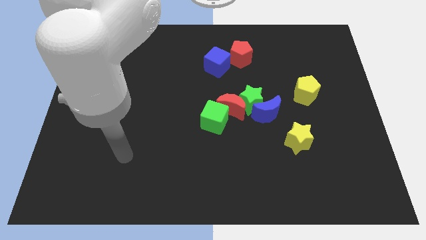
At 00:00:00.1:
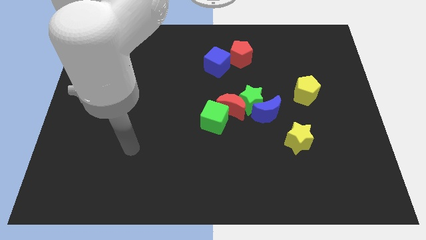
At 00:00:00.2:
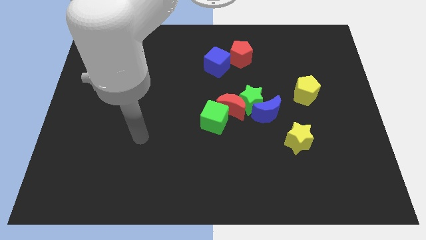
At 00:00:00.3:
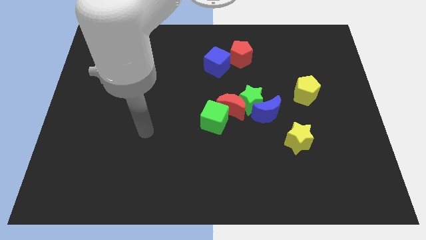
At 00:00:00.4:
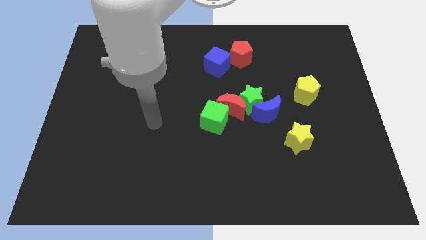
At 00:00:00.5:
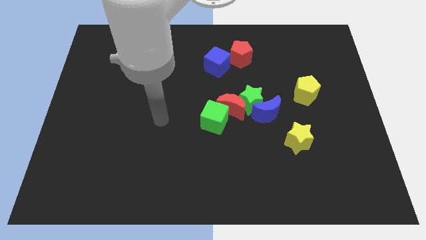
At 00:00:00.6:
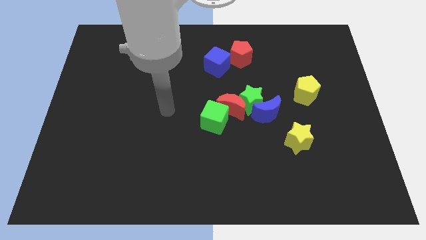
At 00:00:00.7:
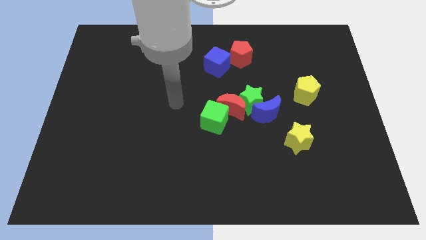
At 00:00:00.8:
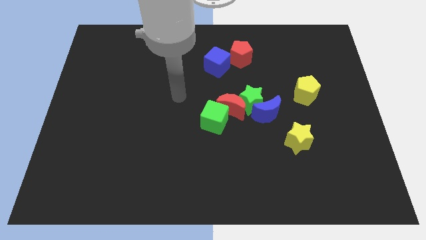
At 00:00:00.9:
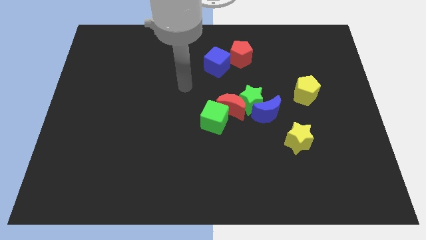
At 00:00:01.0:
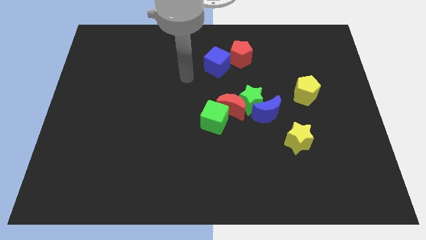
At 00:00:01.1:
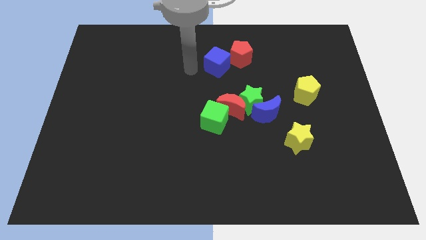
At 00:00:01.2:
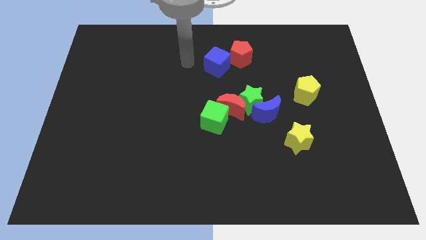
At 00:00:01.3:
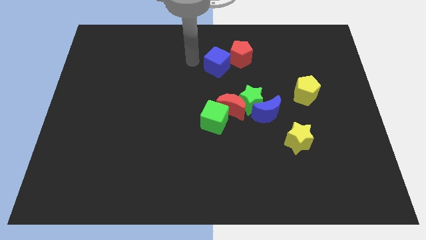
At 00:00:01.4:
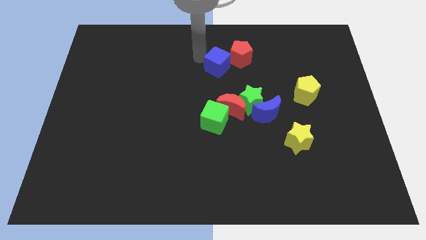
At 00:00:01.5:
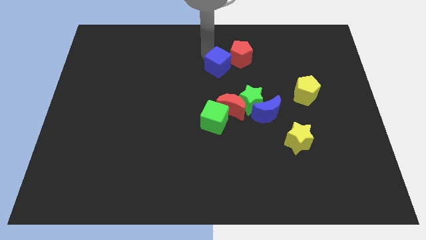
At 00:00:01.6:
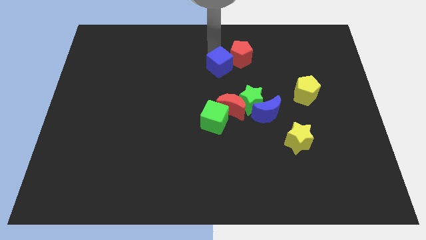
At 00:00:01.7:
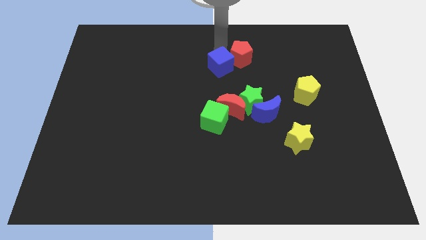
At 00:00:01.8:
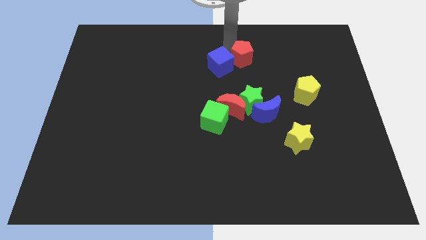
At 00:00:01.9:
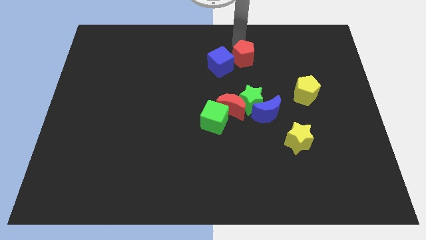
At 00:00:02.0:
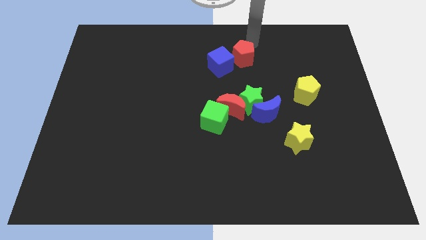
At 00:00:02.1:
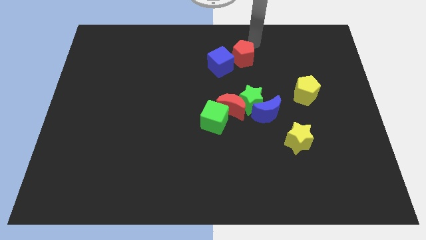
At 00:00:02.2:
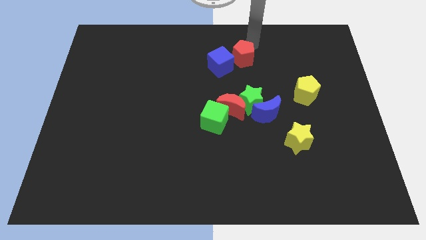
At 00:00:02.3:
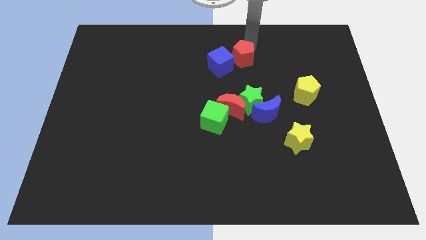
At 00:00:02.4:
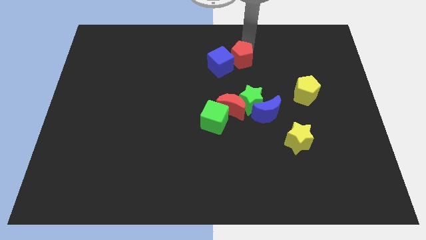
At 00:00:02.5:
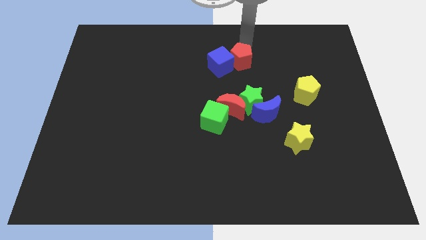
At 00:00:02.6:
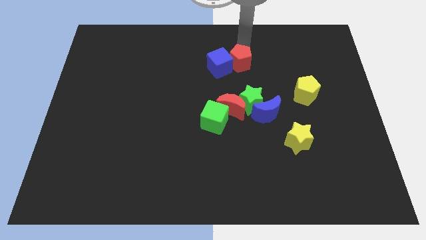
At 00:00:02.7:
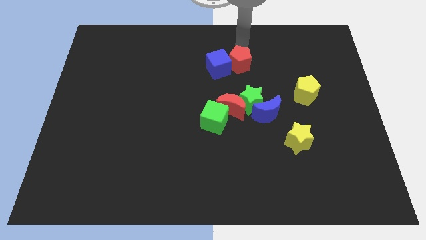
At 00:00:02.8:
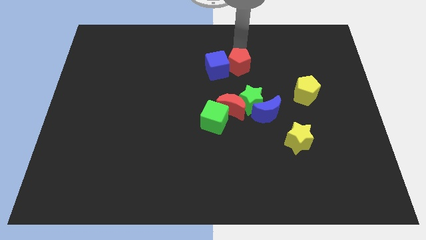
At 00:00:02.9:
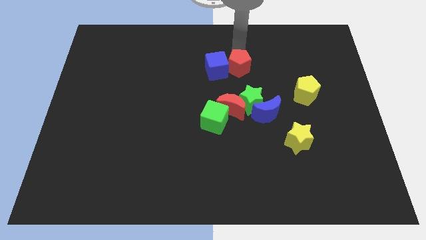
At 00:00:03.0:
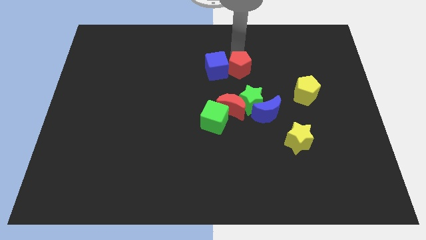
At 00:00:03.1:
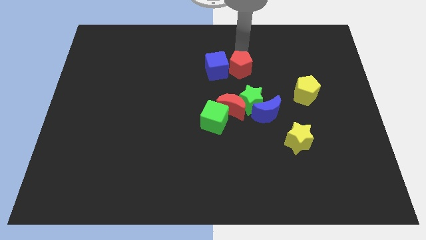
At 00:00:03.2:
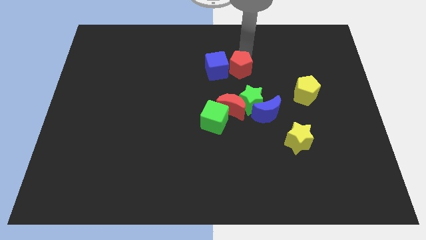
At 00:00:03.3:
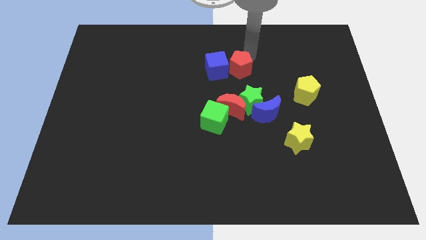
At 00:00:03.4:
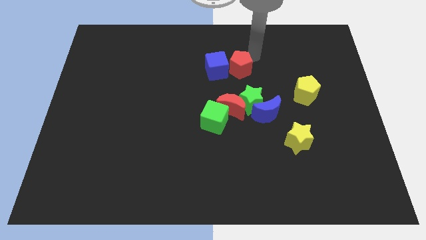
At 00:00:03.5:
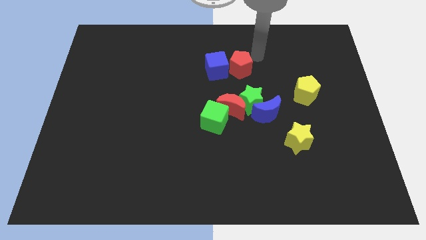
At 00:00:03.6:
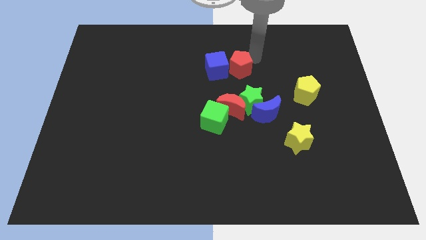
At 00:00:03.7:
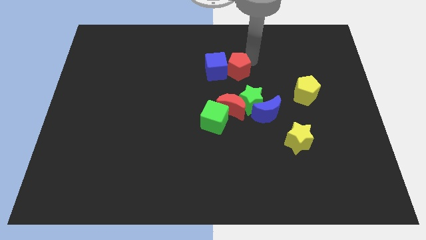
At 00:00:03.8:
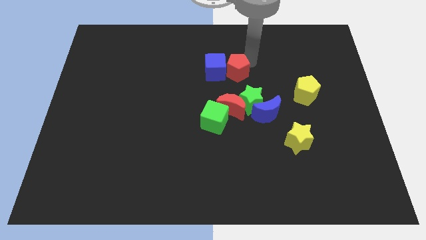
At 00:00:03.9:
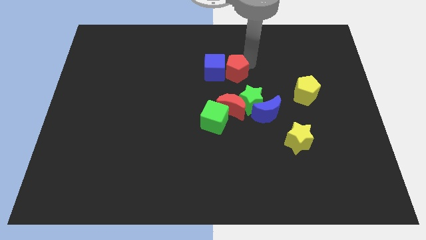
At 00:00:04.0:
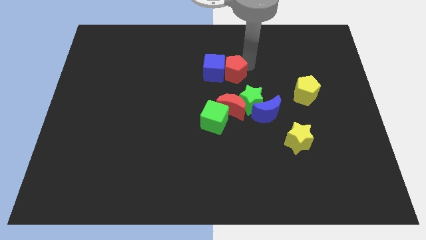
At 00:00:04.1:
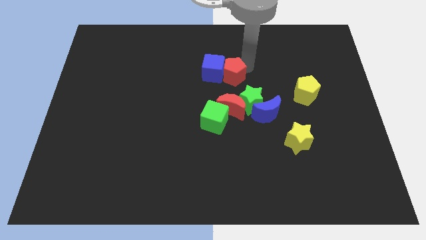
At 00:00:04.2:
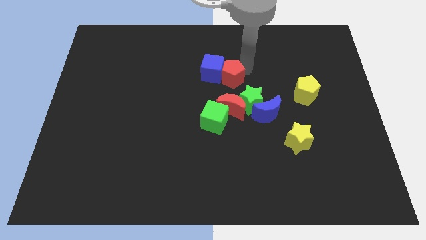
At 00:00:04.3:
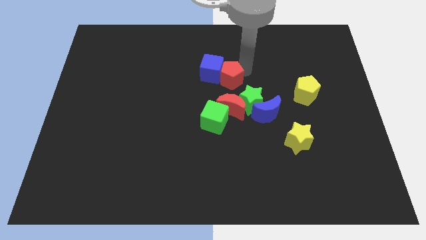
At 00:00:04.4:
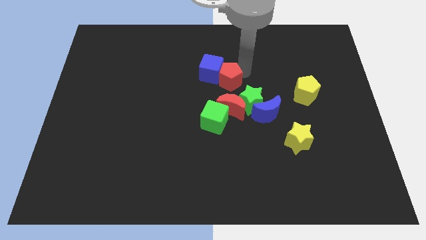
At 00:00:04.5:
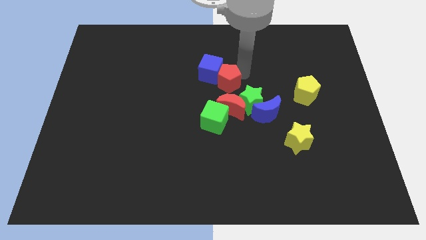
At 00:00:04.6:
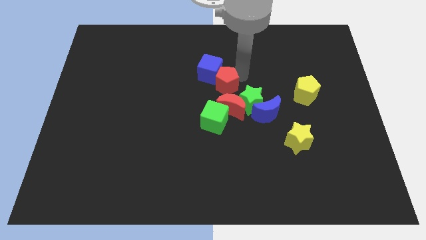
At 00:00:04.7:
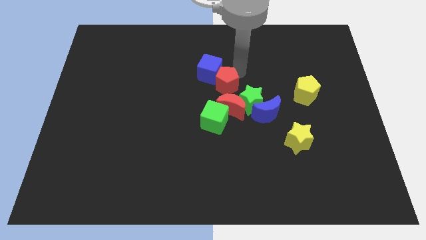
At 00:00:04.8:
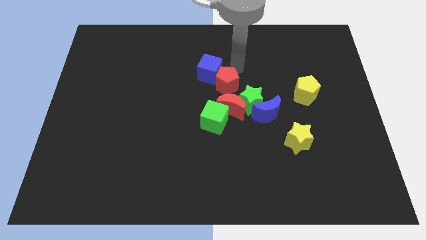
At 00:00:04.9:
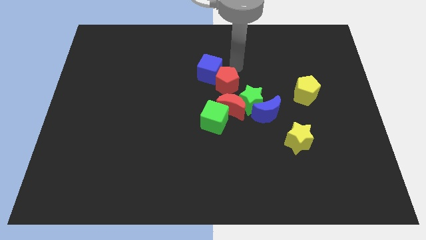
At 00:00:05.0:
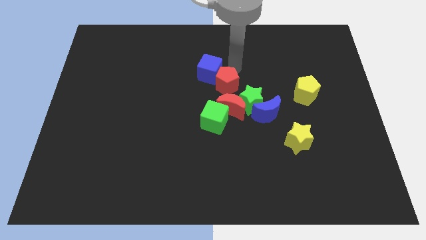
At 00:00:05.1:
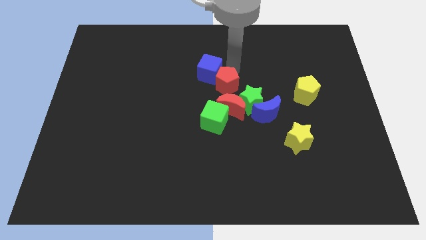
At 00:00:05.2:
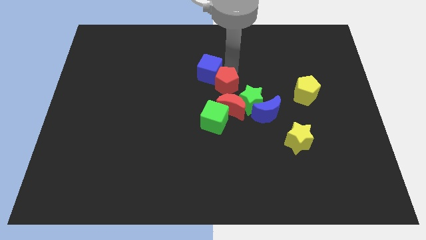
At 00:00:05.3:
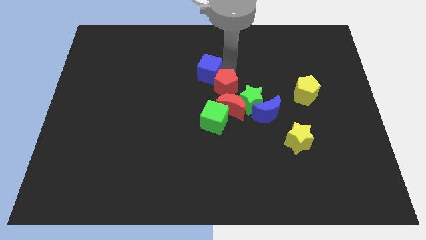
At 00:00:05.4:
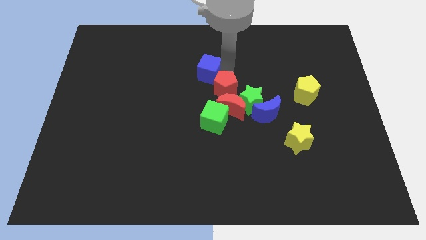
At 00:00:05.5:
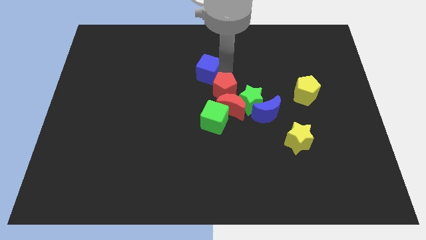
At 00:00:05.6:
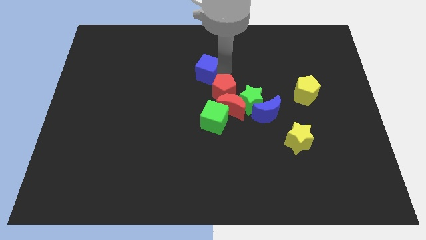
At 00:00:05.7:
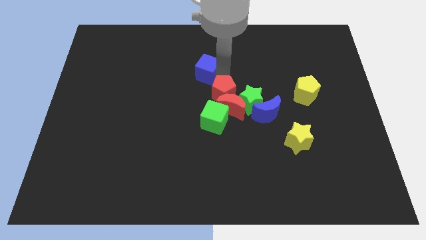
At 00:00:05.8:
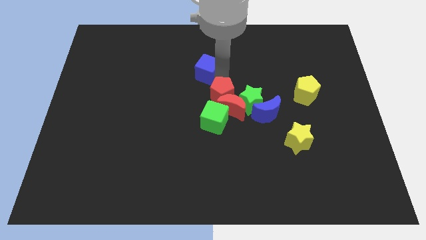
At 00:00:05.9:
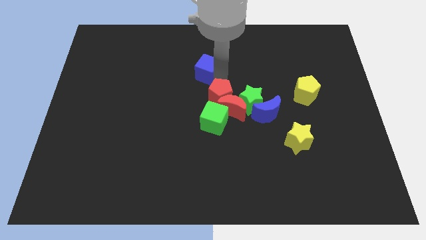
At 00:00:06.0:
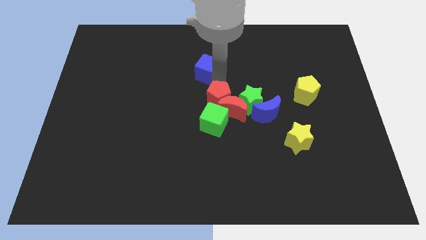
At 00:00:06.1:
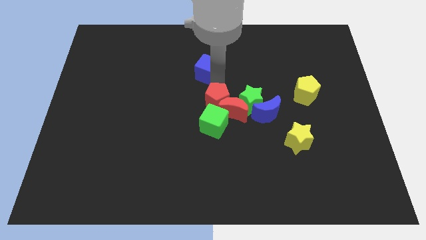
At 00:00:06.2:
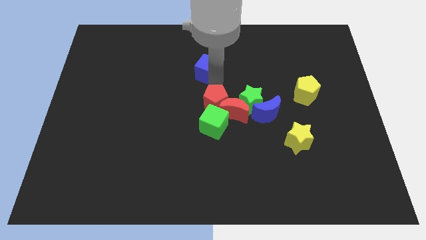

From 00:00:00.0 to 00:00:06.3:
put the red pentagon towards the green cube
